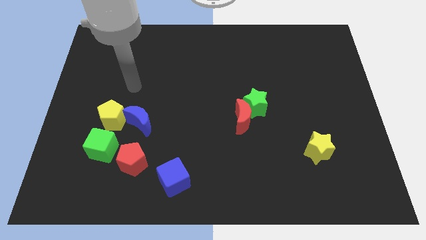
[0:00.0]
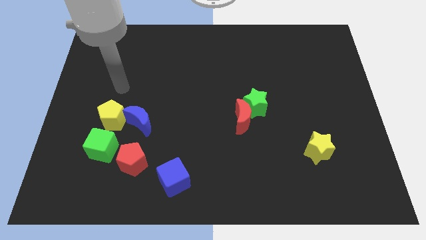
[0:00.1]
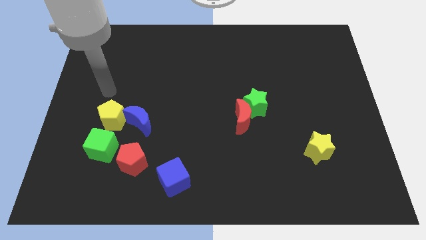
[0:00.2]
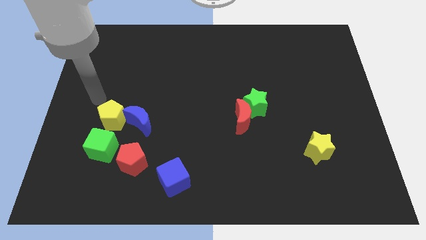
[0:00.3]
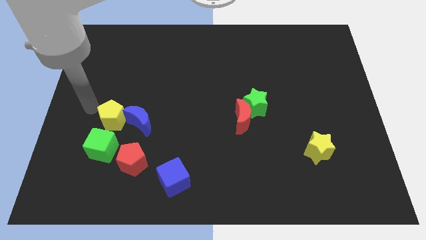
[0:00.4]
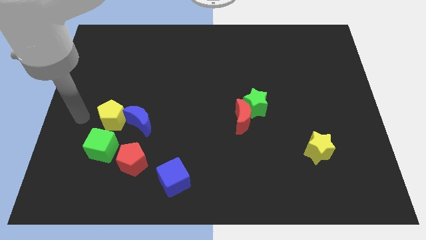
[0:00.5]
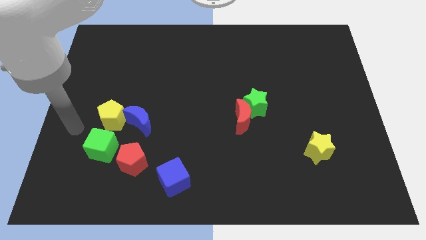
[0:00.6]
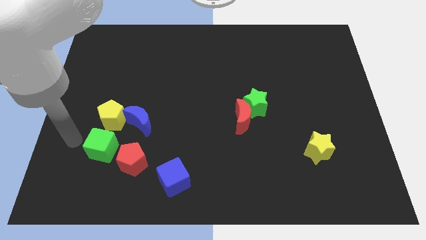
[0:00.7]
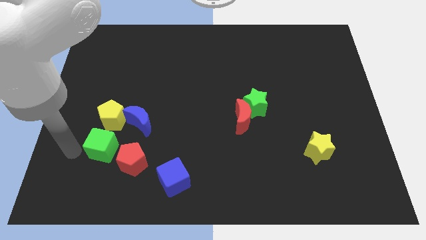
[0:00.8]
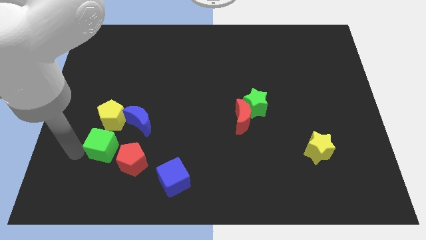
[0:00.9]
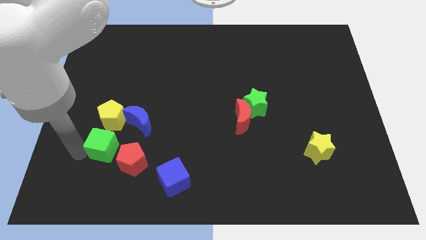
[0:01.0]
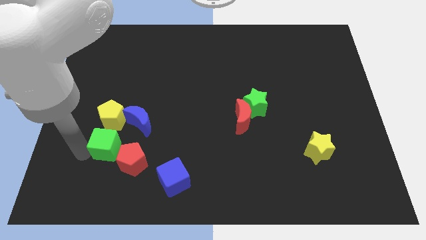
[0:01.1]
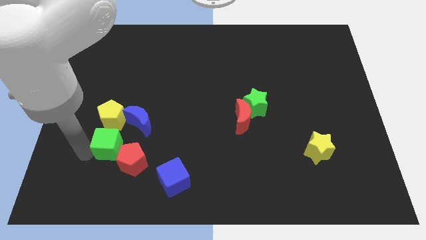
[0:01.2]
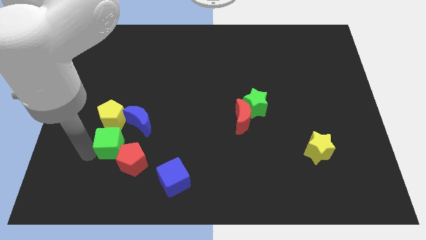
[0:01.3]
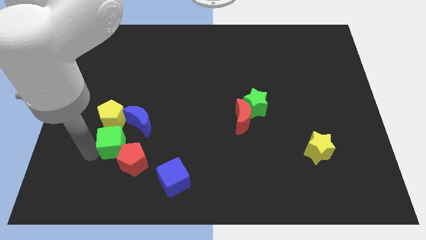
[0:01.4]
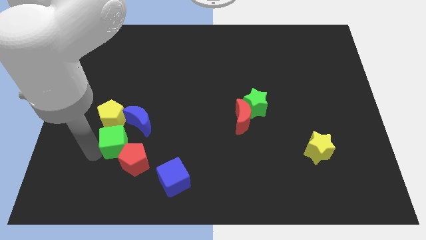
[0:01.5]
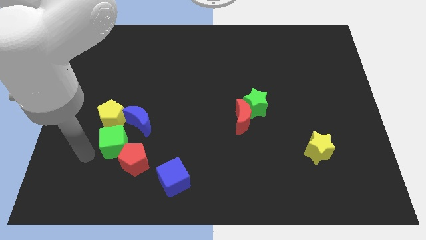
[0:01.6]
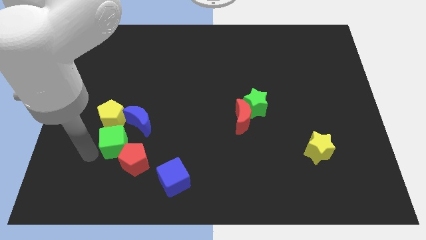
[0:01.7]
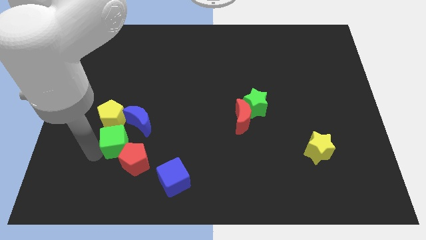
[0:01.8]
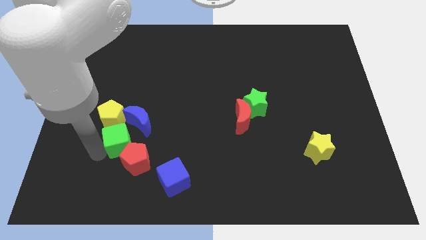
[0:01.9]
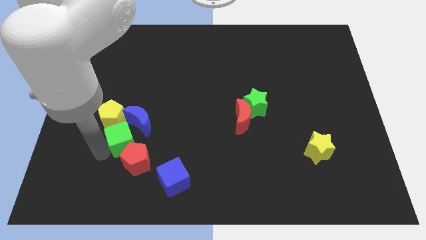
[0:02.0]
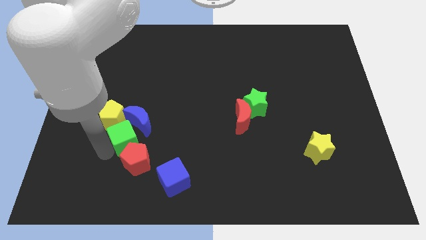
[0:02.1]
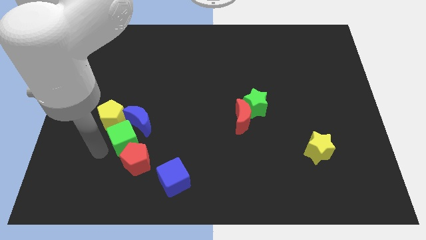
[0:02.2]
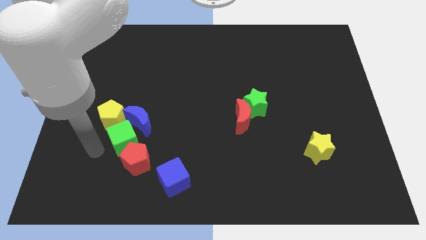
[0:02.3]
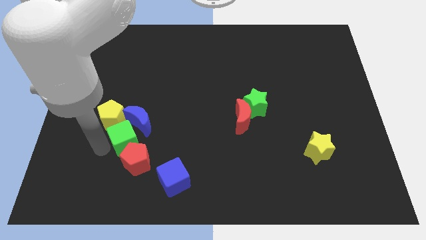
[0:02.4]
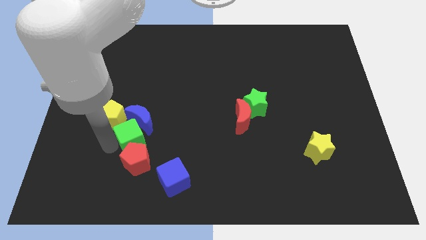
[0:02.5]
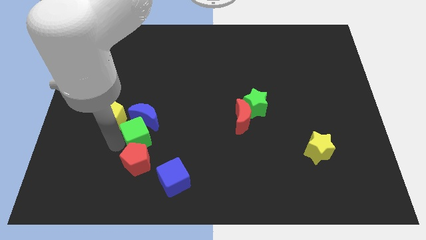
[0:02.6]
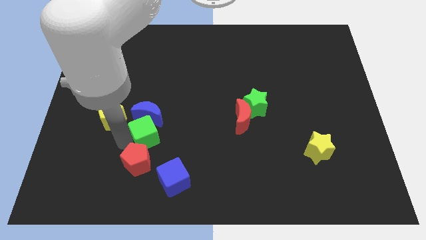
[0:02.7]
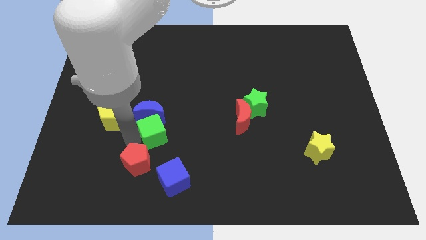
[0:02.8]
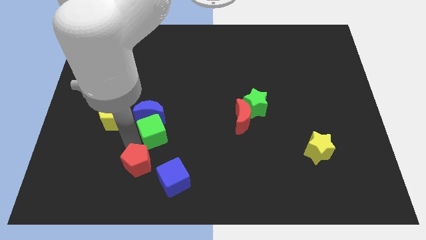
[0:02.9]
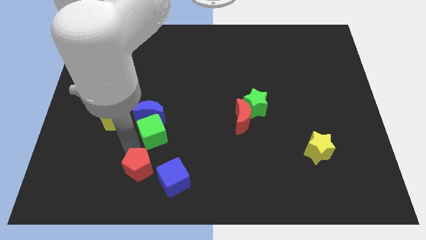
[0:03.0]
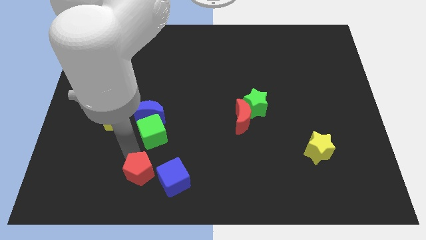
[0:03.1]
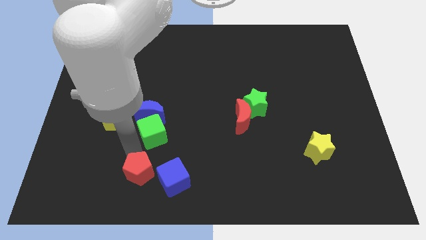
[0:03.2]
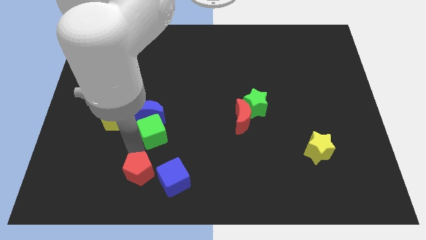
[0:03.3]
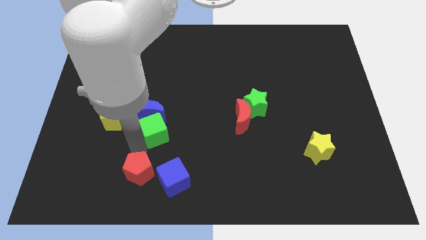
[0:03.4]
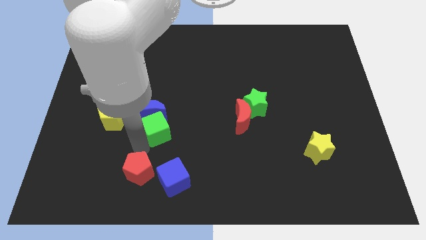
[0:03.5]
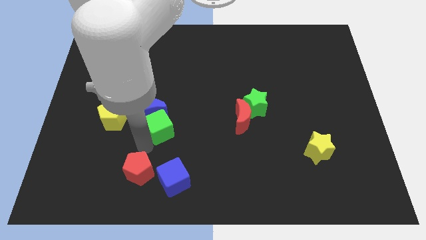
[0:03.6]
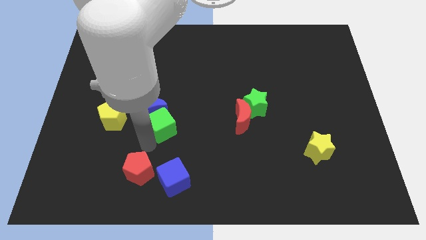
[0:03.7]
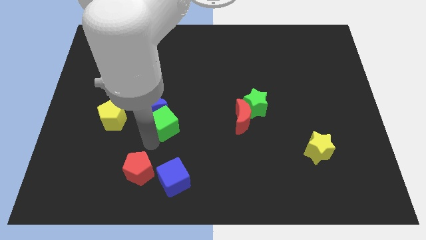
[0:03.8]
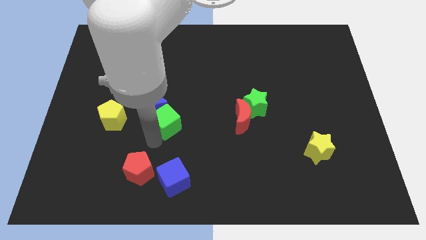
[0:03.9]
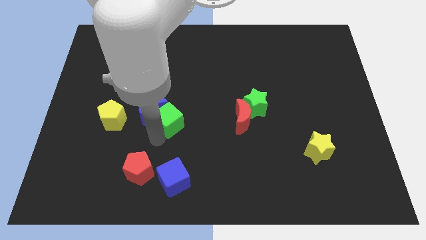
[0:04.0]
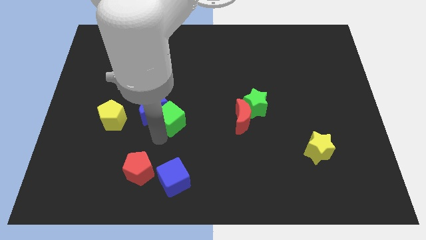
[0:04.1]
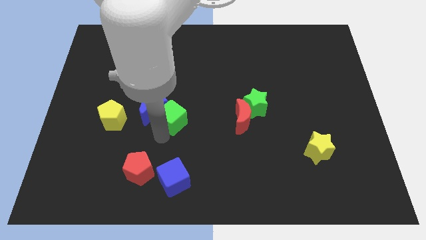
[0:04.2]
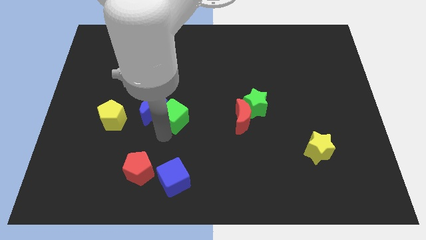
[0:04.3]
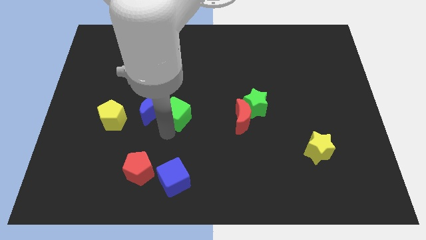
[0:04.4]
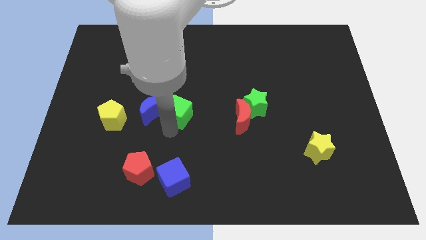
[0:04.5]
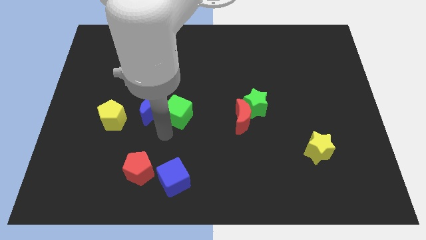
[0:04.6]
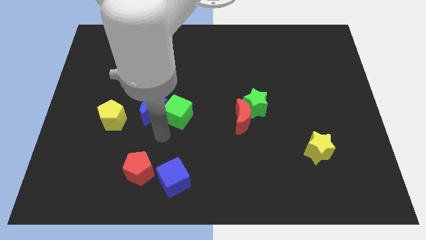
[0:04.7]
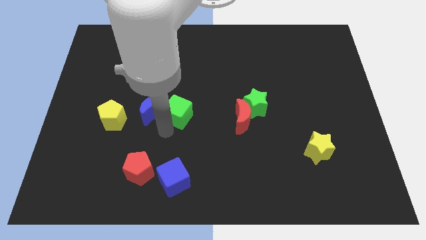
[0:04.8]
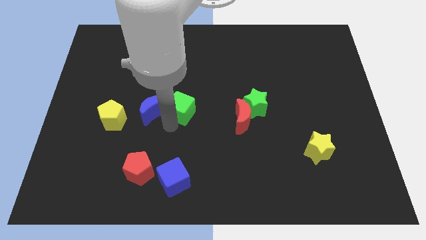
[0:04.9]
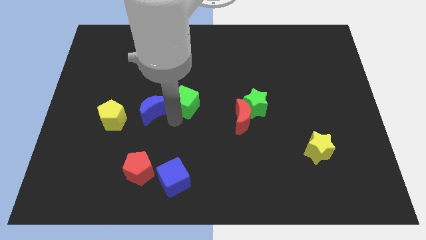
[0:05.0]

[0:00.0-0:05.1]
push the green cube up and to the right

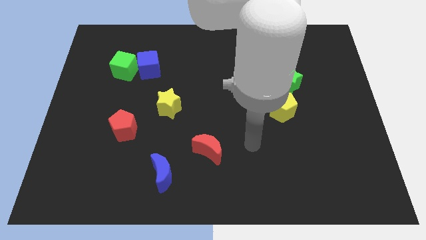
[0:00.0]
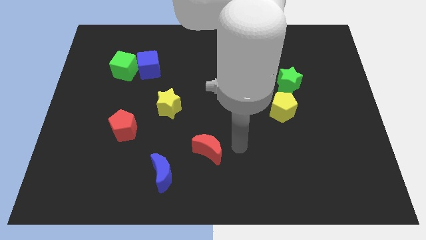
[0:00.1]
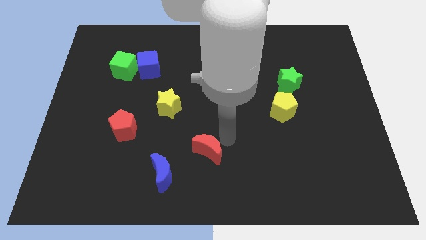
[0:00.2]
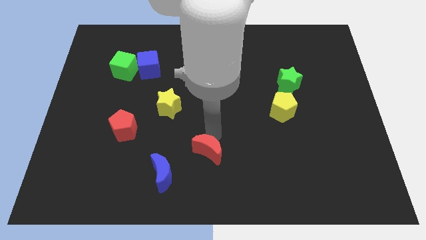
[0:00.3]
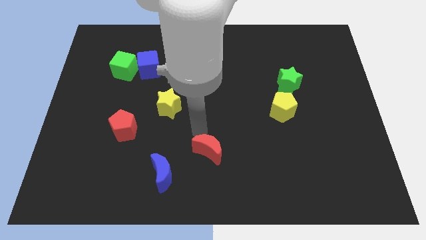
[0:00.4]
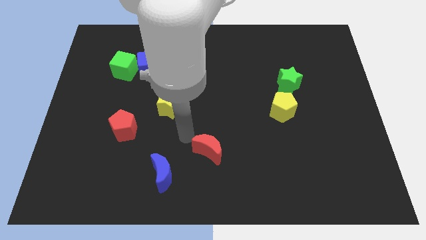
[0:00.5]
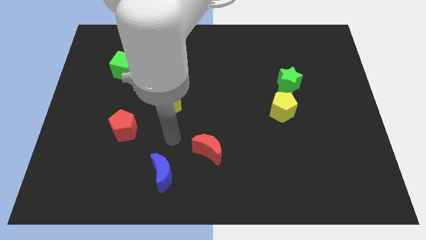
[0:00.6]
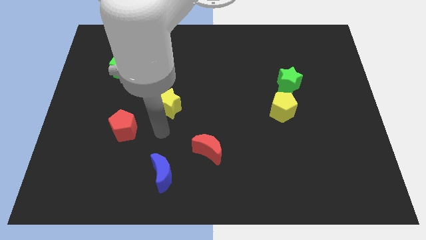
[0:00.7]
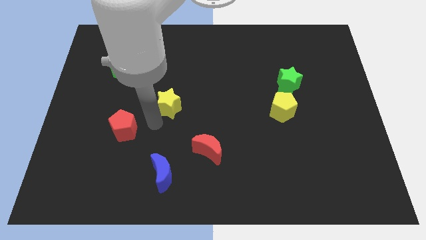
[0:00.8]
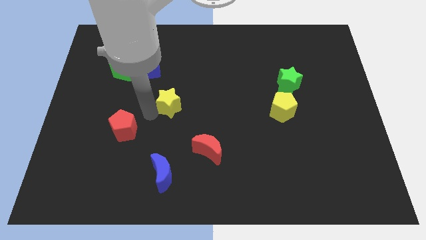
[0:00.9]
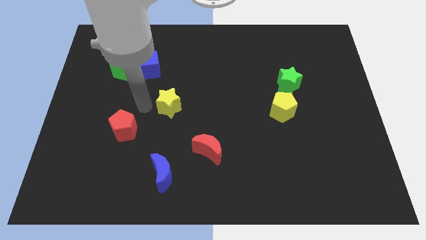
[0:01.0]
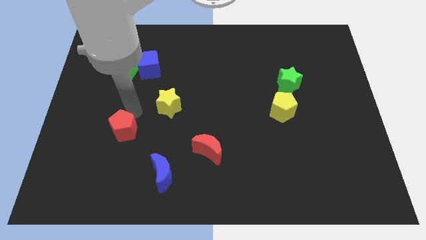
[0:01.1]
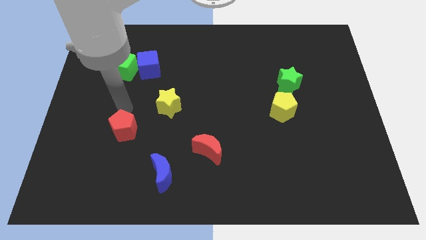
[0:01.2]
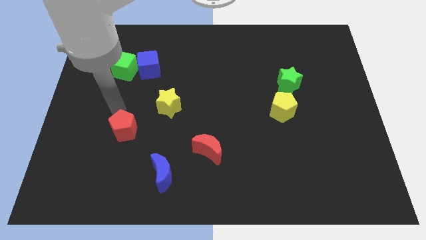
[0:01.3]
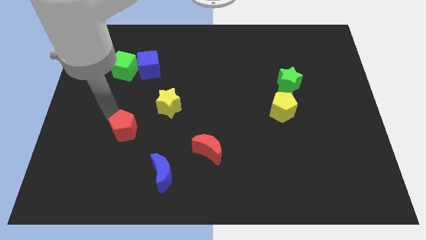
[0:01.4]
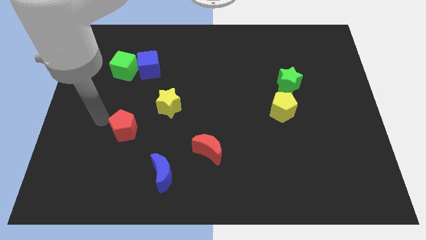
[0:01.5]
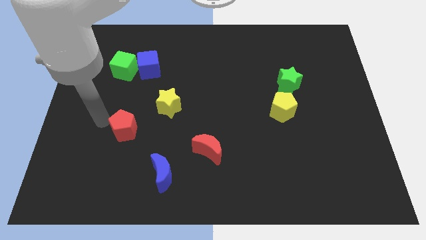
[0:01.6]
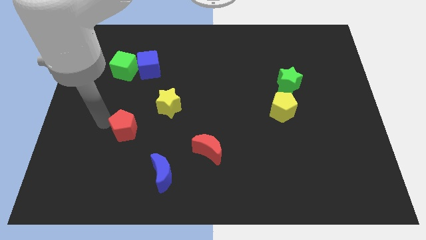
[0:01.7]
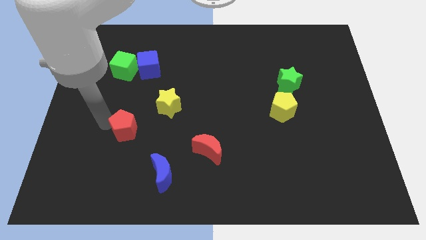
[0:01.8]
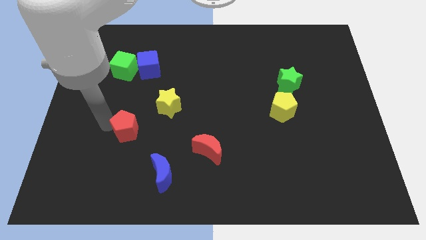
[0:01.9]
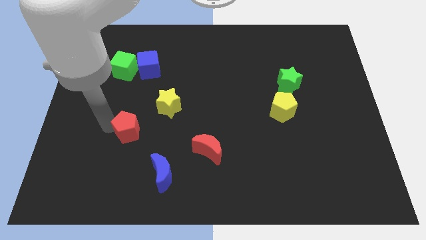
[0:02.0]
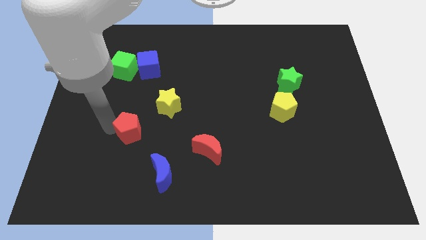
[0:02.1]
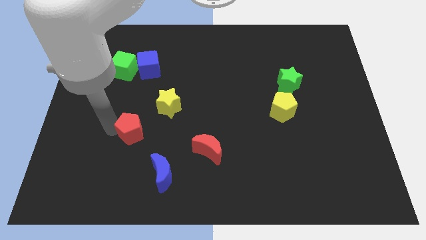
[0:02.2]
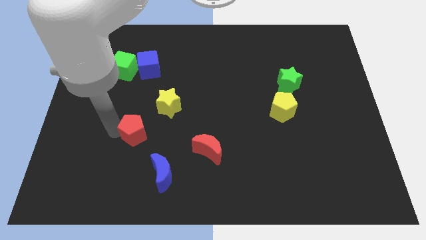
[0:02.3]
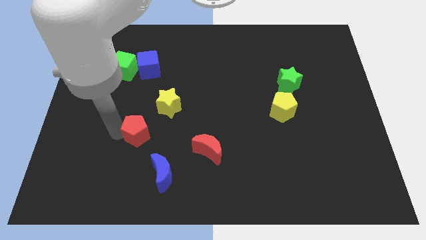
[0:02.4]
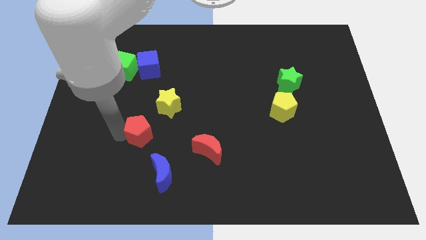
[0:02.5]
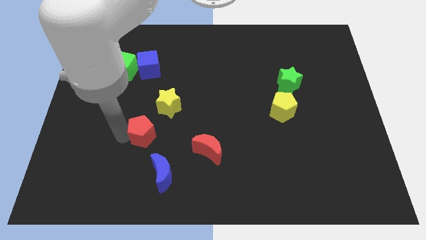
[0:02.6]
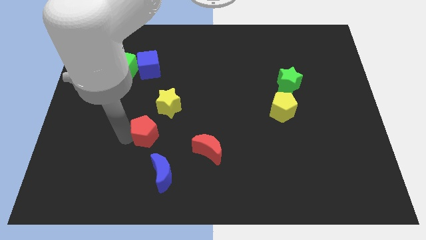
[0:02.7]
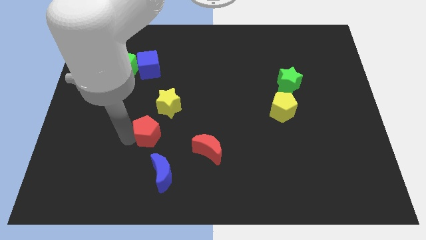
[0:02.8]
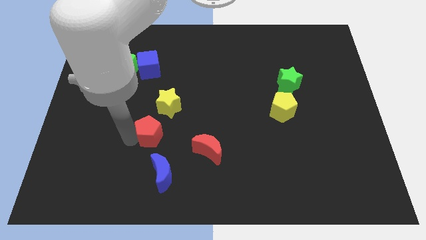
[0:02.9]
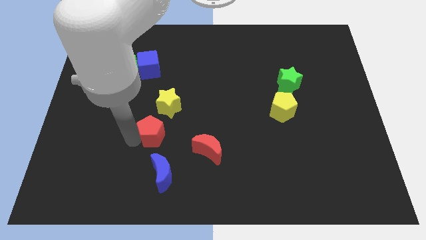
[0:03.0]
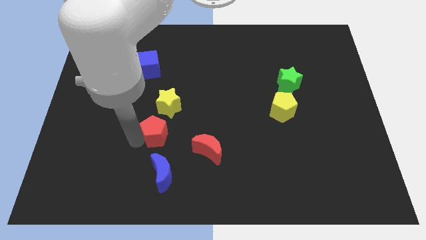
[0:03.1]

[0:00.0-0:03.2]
push the red pentagon to the right somewhat
